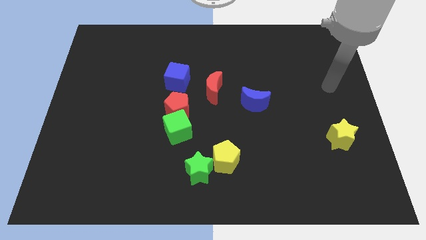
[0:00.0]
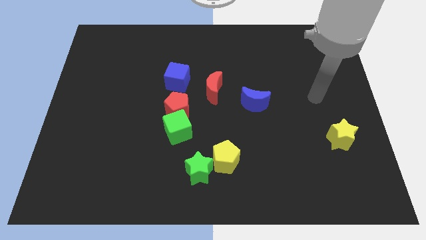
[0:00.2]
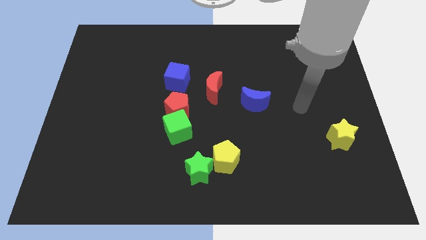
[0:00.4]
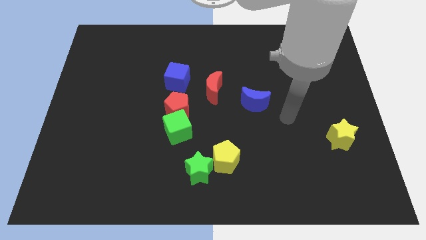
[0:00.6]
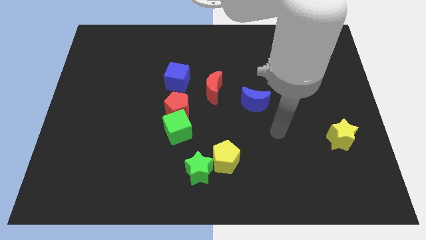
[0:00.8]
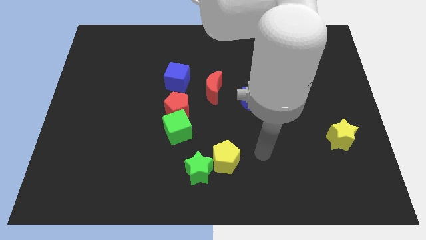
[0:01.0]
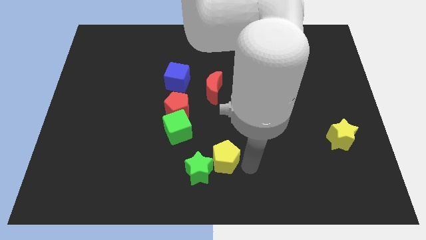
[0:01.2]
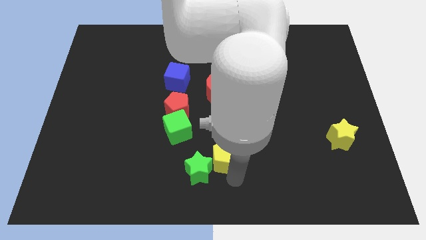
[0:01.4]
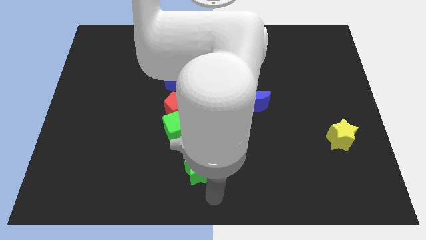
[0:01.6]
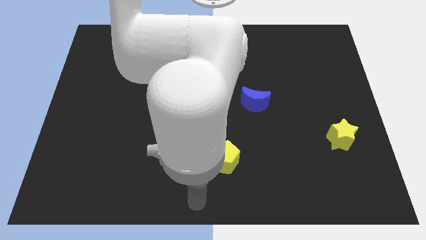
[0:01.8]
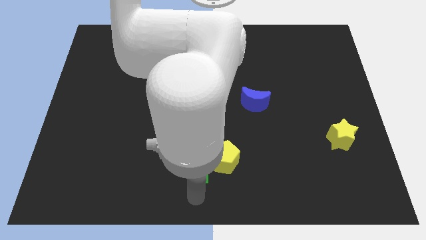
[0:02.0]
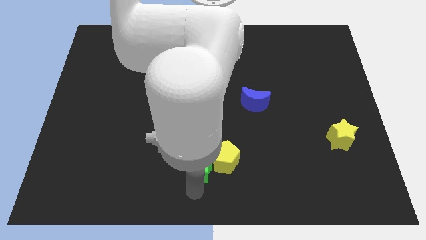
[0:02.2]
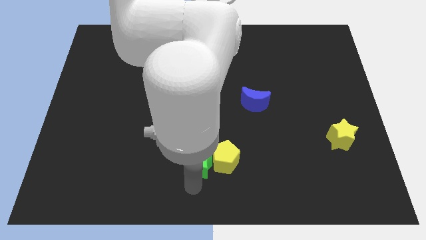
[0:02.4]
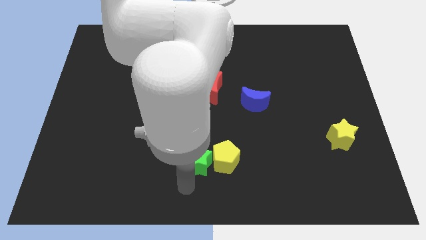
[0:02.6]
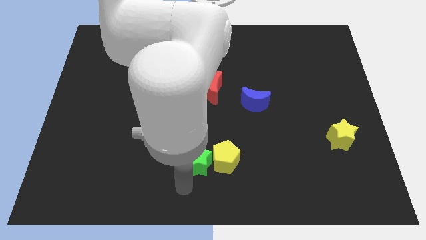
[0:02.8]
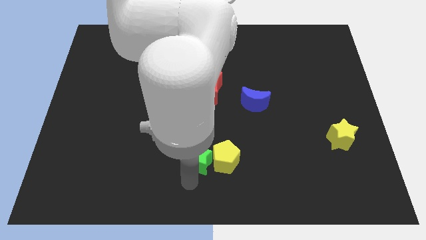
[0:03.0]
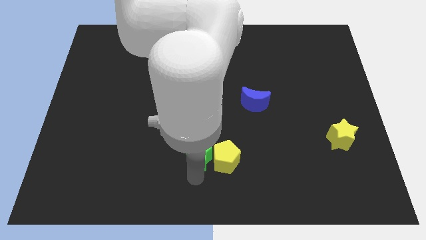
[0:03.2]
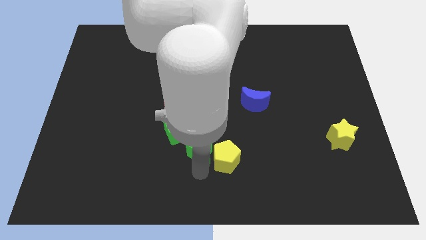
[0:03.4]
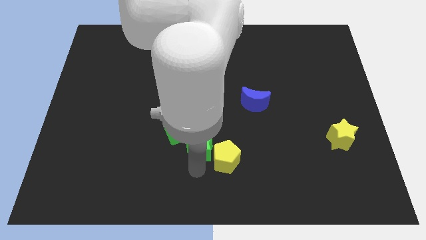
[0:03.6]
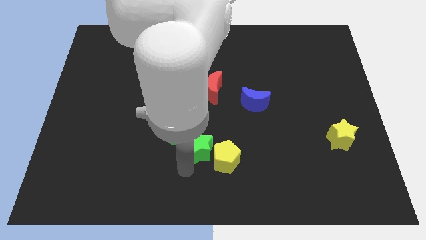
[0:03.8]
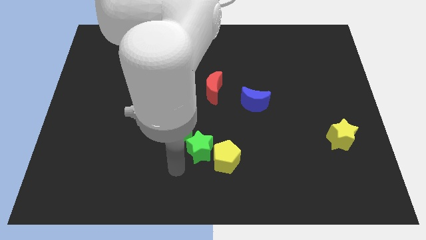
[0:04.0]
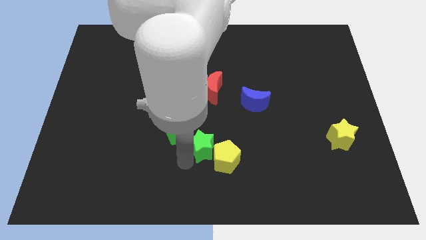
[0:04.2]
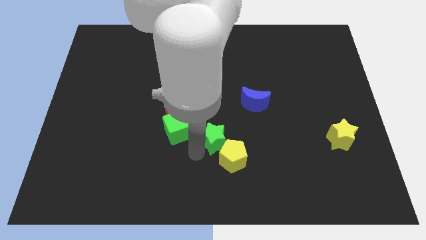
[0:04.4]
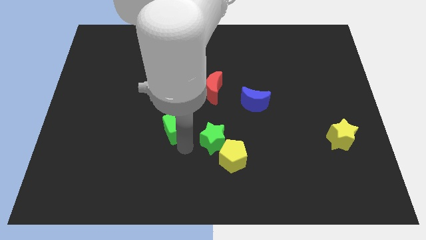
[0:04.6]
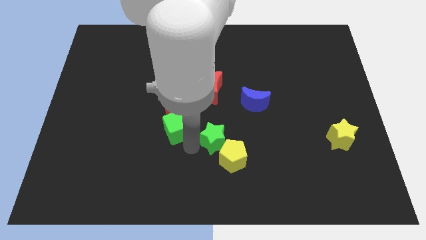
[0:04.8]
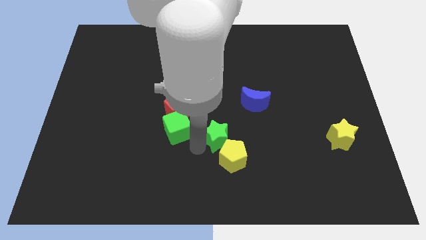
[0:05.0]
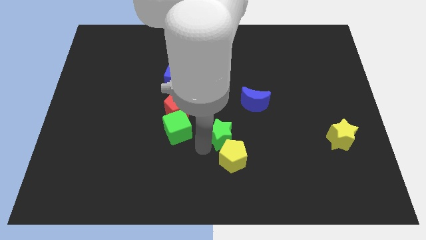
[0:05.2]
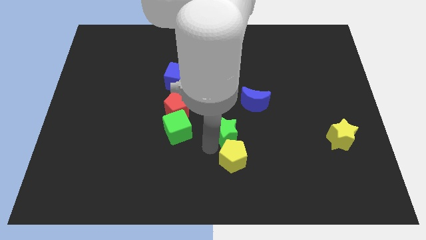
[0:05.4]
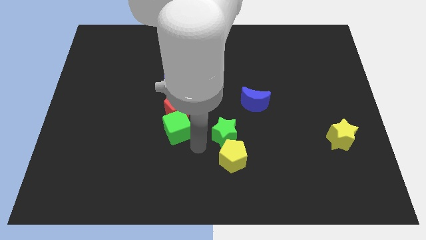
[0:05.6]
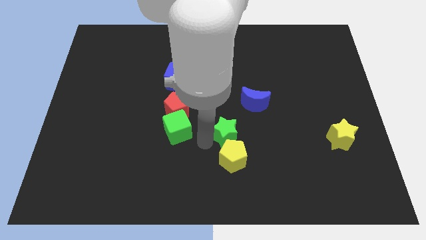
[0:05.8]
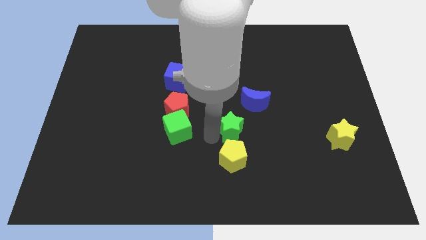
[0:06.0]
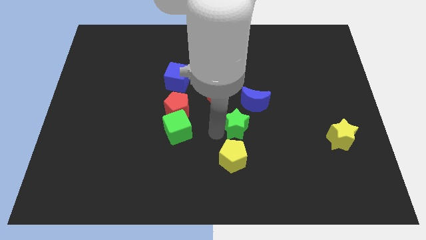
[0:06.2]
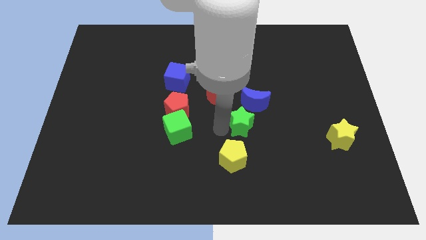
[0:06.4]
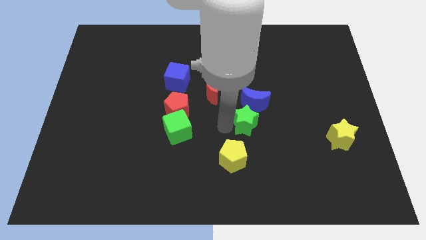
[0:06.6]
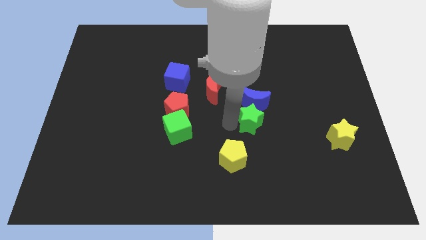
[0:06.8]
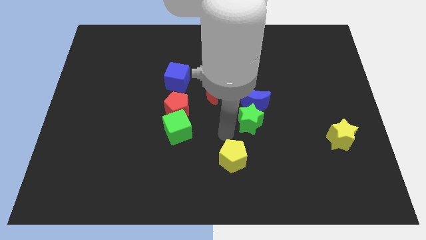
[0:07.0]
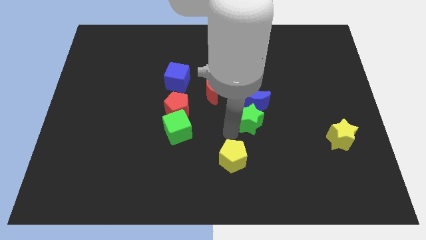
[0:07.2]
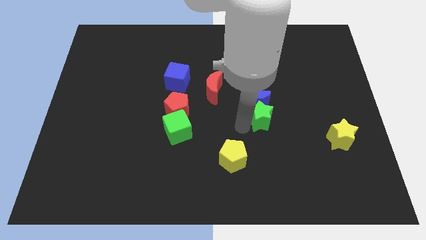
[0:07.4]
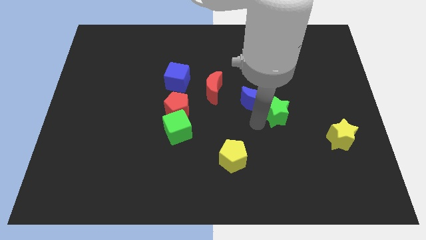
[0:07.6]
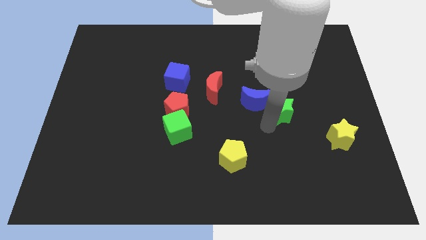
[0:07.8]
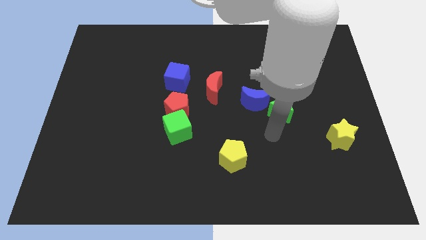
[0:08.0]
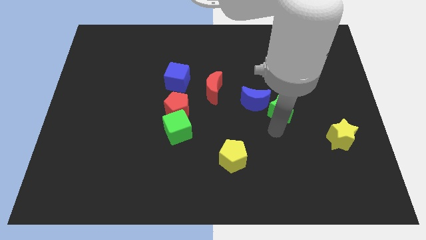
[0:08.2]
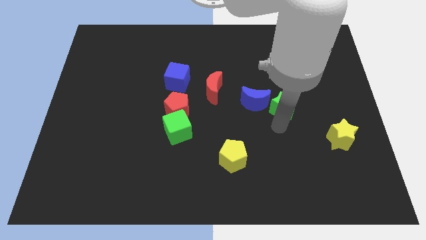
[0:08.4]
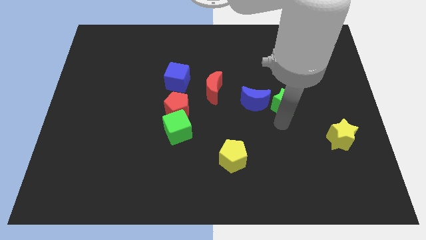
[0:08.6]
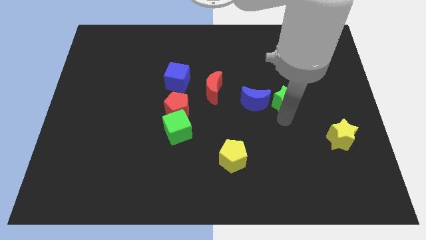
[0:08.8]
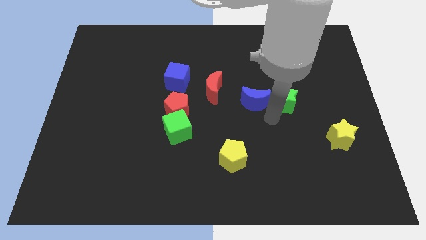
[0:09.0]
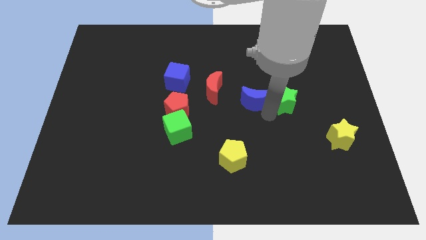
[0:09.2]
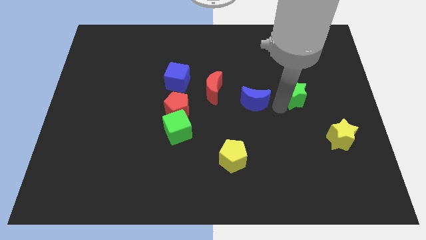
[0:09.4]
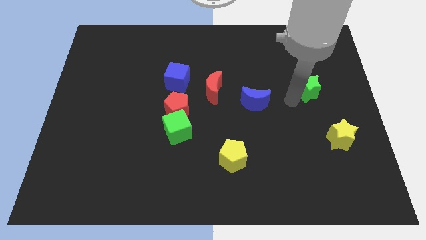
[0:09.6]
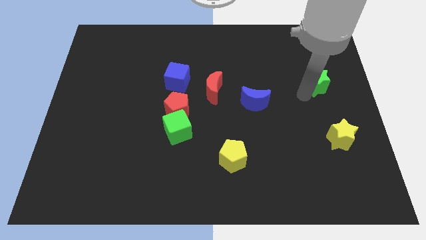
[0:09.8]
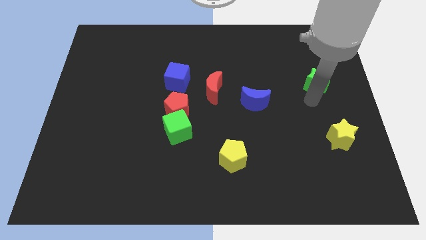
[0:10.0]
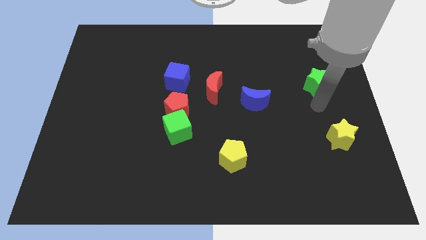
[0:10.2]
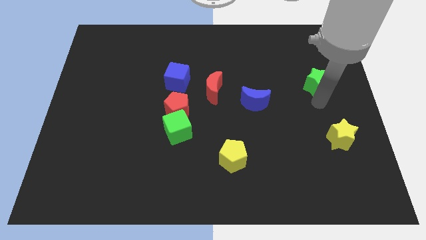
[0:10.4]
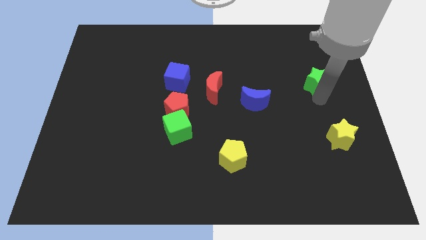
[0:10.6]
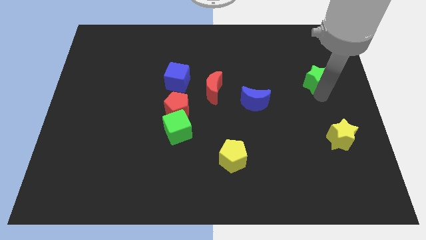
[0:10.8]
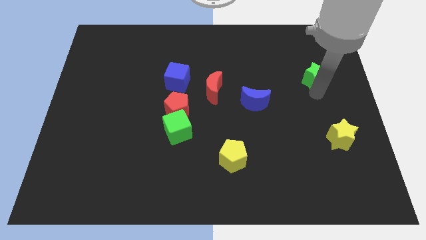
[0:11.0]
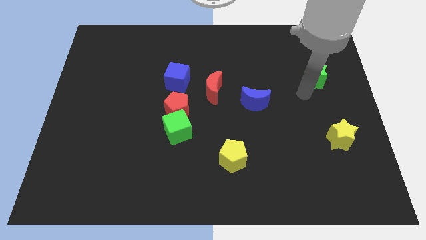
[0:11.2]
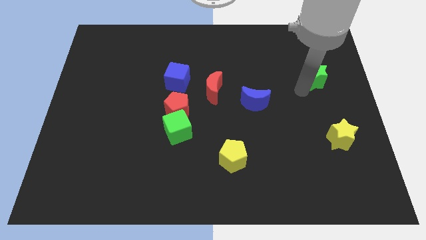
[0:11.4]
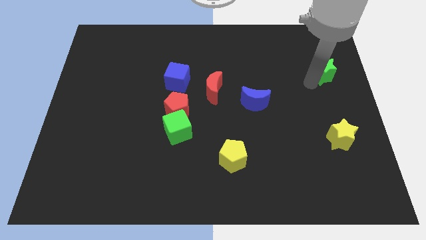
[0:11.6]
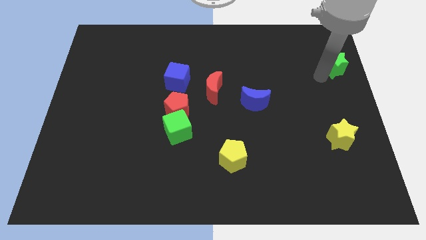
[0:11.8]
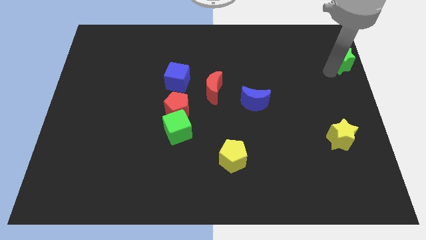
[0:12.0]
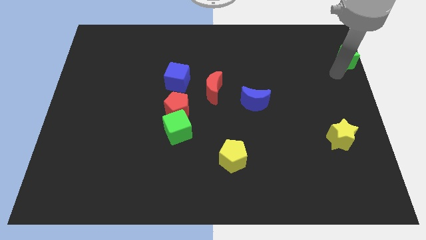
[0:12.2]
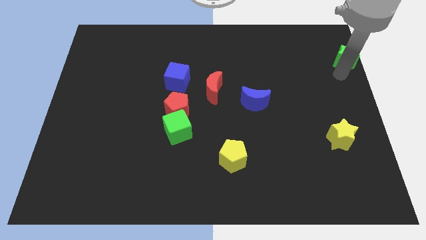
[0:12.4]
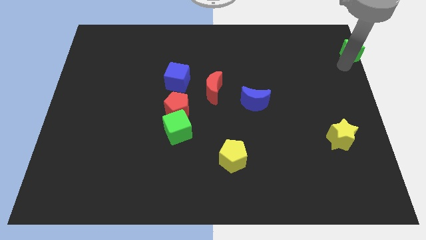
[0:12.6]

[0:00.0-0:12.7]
put the green star to the upper right corner
